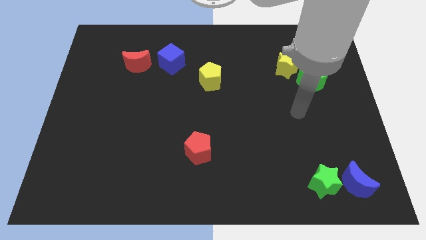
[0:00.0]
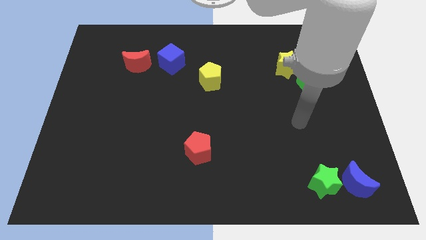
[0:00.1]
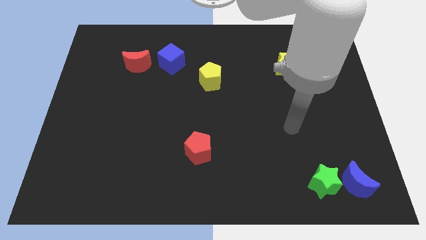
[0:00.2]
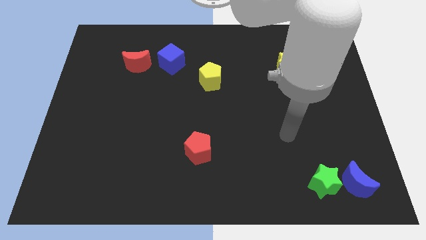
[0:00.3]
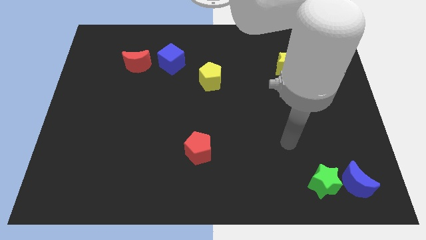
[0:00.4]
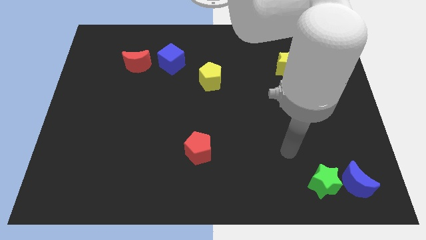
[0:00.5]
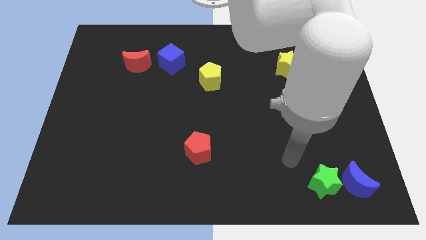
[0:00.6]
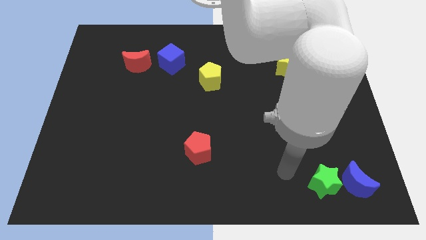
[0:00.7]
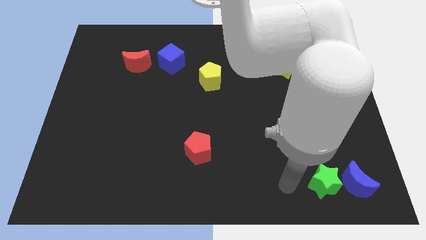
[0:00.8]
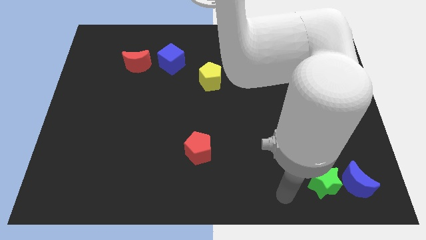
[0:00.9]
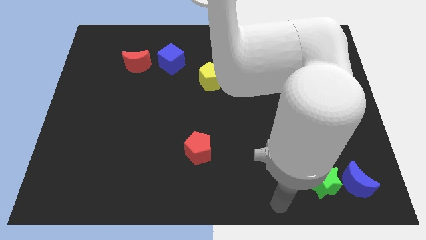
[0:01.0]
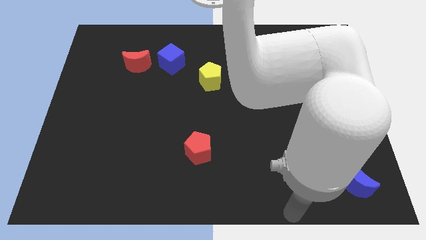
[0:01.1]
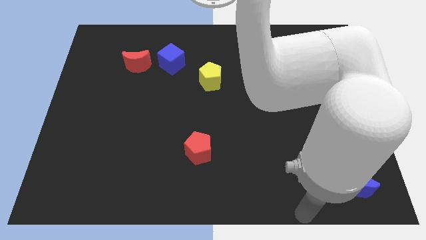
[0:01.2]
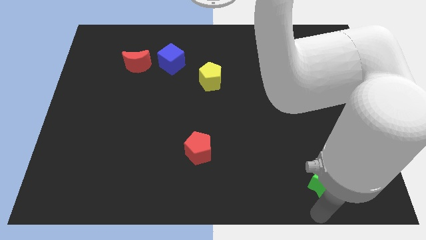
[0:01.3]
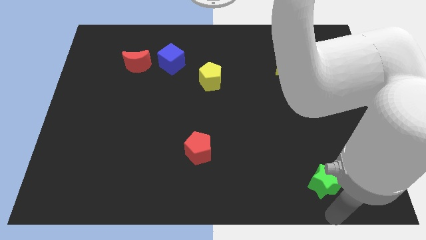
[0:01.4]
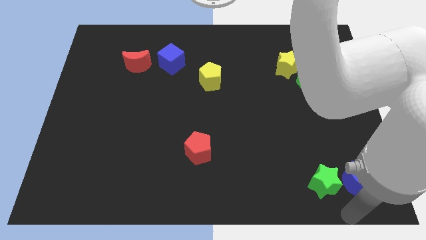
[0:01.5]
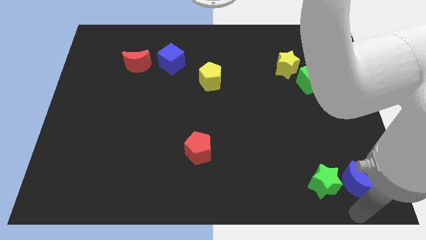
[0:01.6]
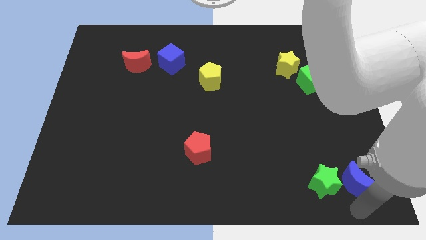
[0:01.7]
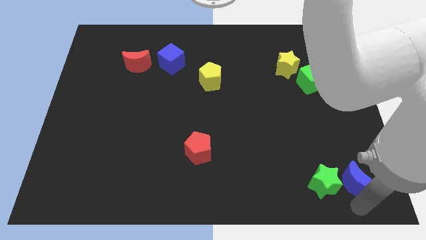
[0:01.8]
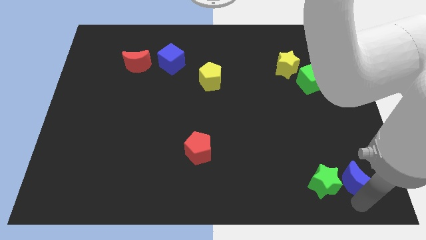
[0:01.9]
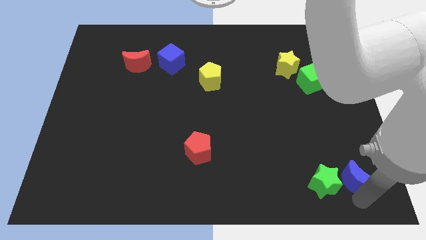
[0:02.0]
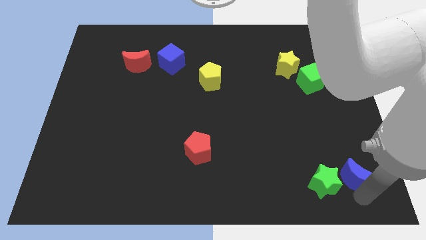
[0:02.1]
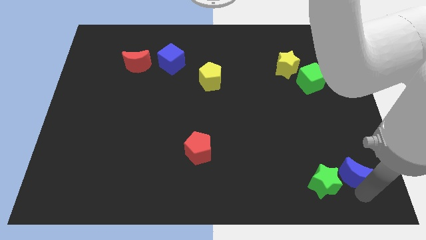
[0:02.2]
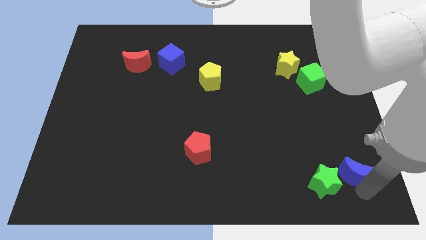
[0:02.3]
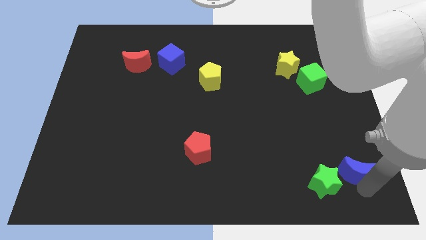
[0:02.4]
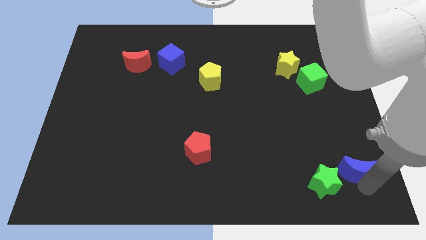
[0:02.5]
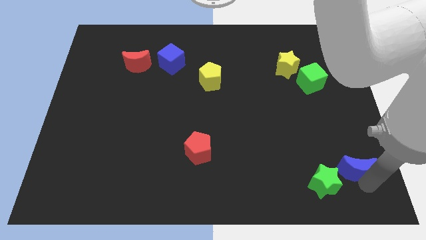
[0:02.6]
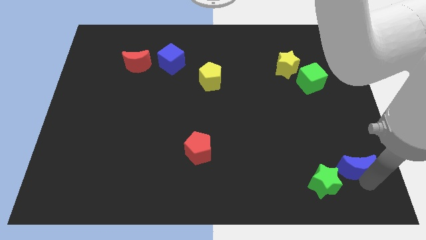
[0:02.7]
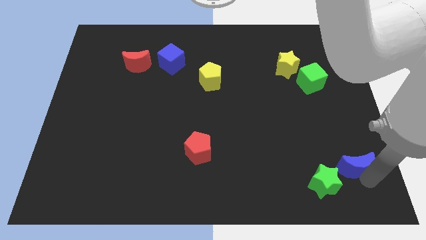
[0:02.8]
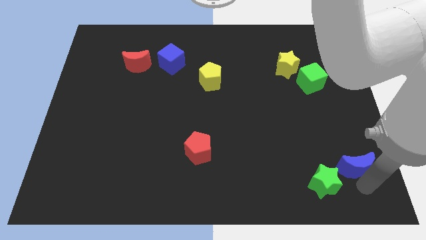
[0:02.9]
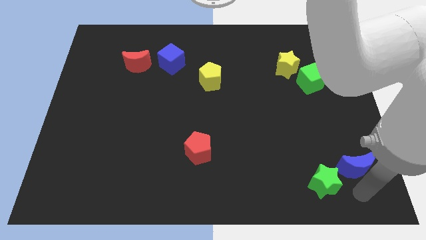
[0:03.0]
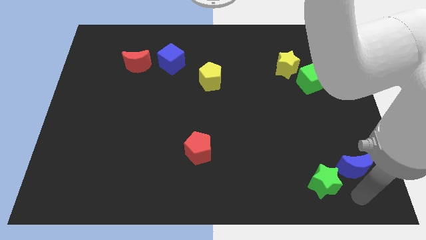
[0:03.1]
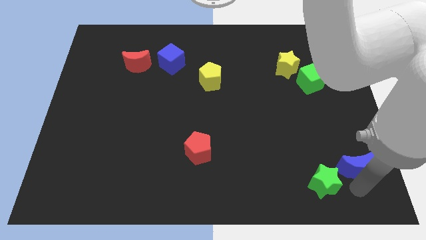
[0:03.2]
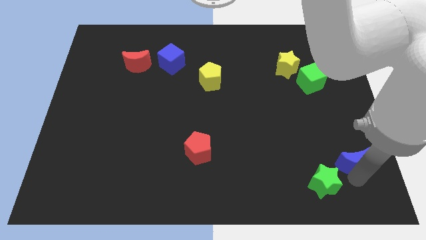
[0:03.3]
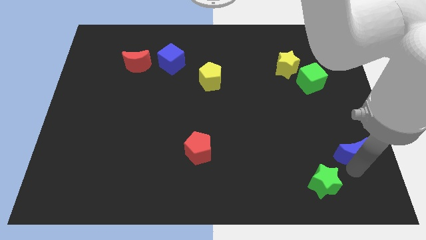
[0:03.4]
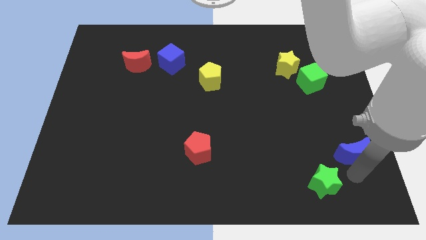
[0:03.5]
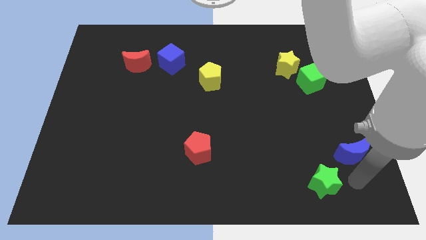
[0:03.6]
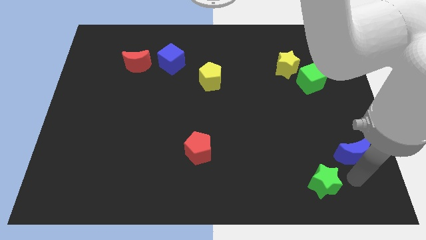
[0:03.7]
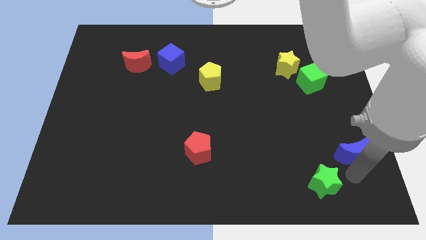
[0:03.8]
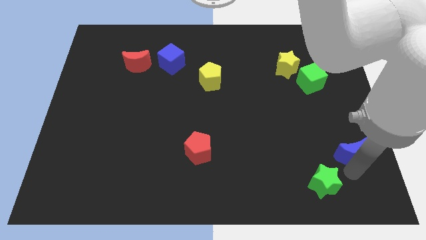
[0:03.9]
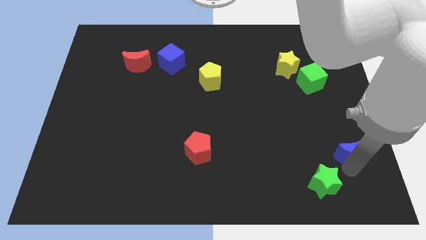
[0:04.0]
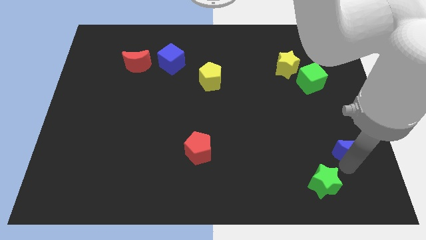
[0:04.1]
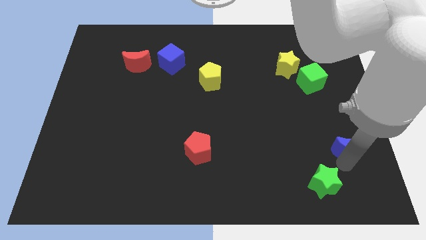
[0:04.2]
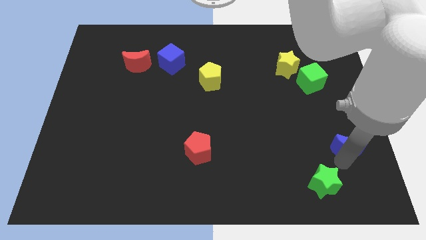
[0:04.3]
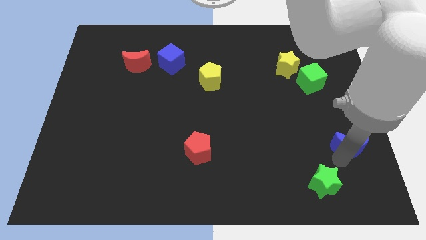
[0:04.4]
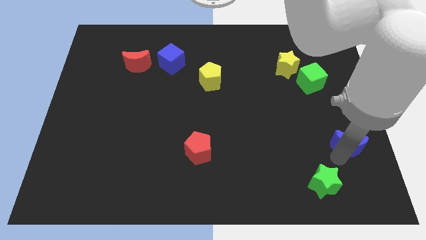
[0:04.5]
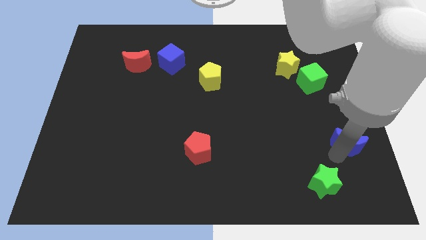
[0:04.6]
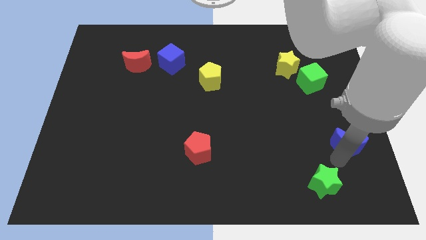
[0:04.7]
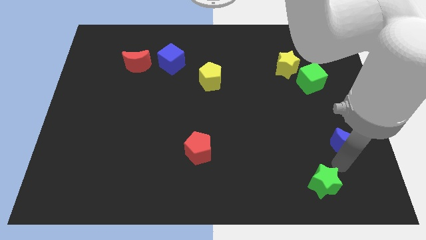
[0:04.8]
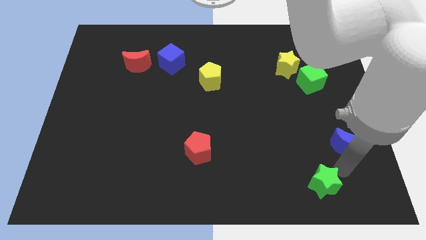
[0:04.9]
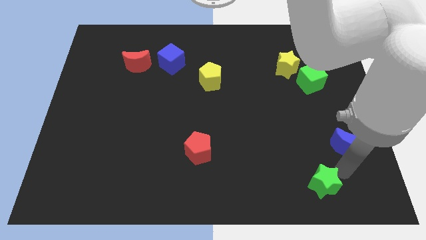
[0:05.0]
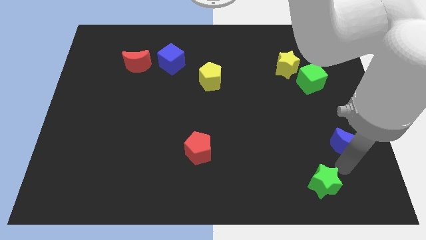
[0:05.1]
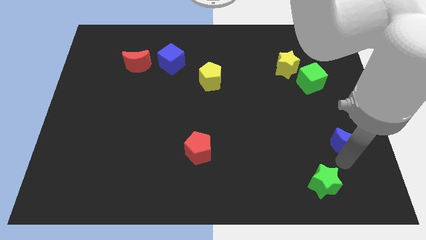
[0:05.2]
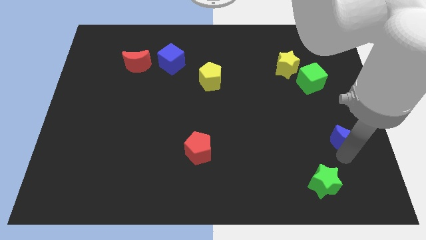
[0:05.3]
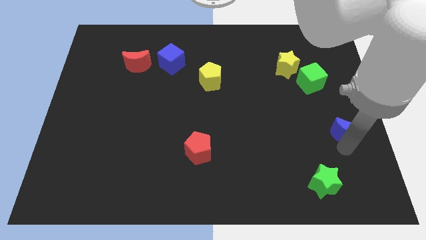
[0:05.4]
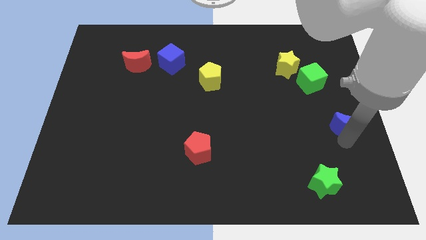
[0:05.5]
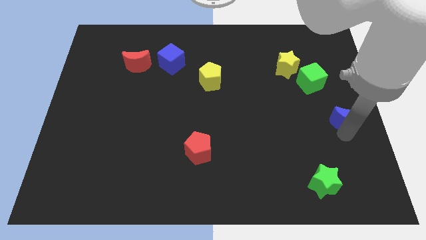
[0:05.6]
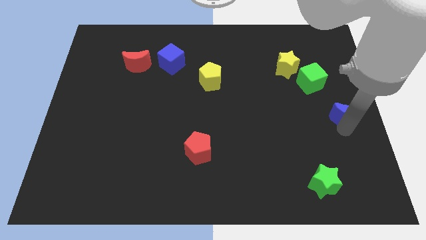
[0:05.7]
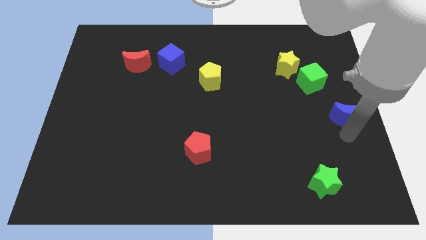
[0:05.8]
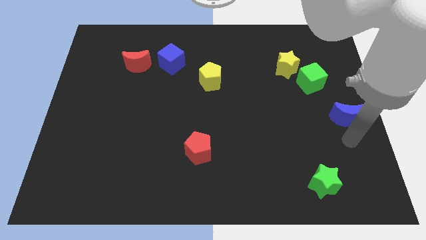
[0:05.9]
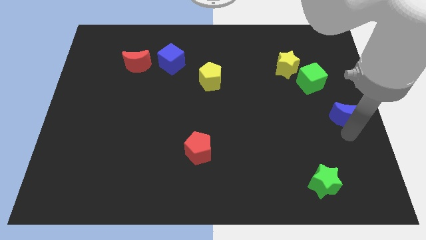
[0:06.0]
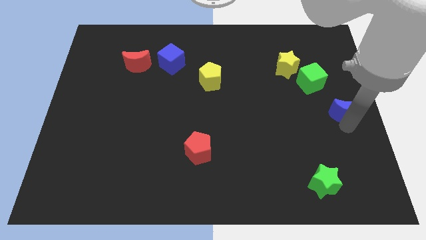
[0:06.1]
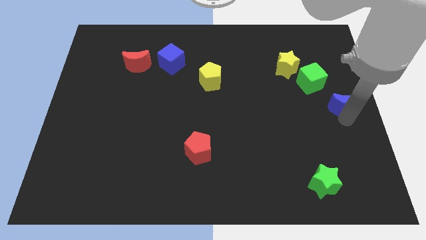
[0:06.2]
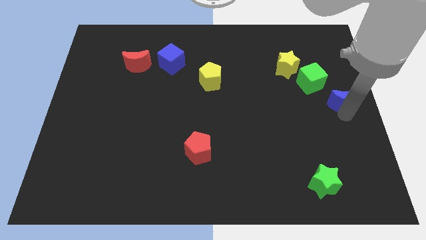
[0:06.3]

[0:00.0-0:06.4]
slide the blue moon upwards

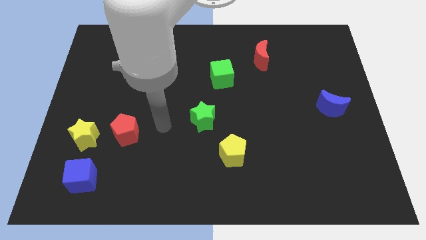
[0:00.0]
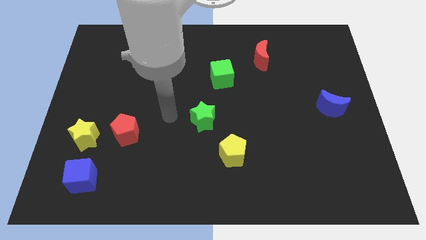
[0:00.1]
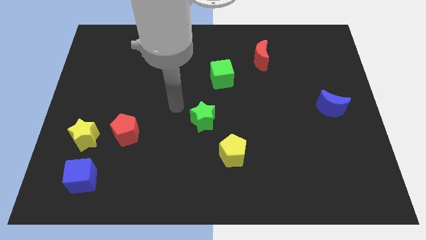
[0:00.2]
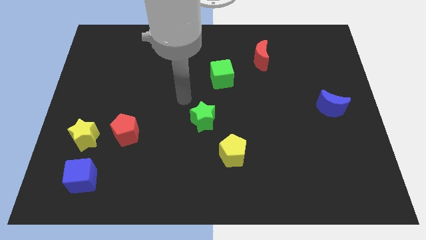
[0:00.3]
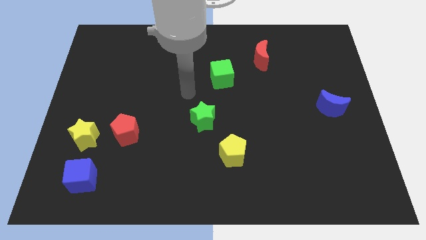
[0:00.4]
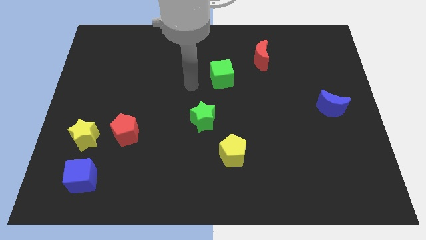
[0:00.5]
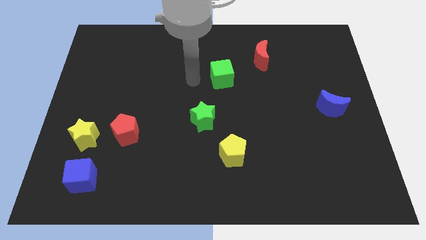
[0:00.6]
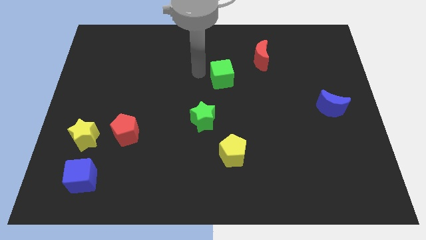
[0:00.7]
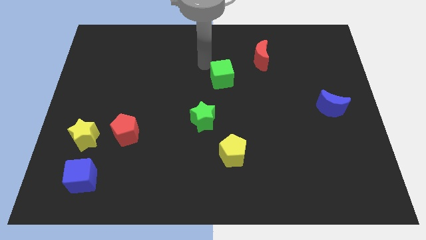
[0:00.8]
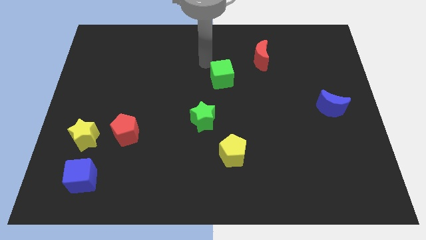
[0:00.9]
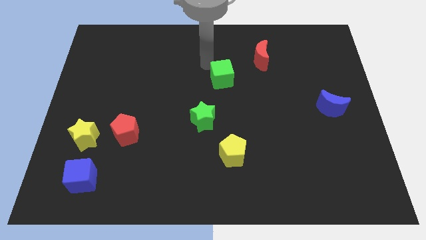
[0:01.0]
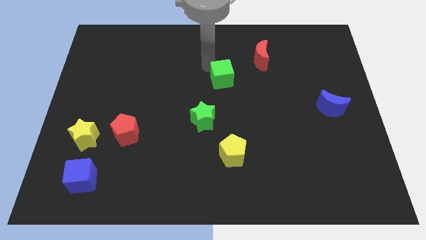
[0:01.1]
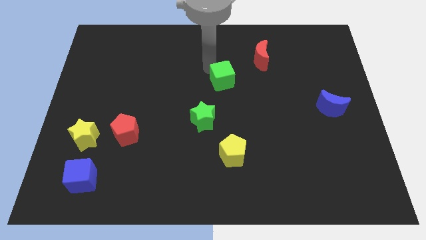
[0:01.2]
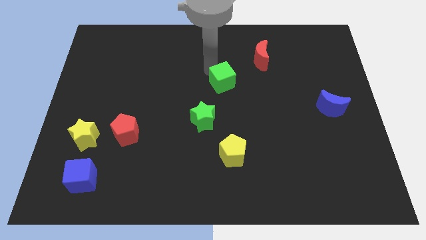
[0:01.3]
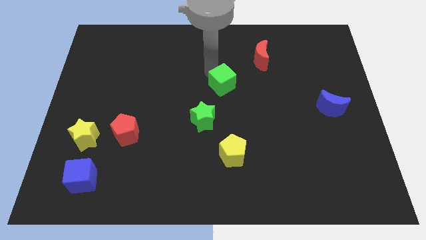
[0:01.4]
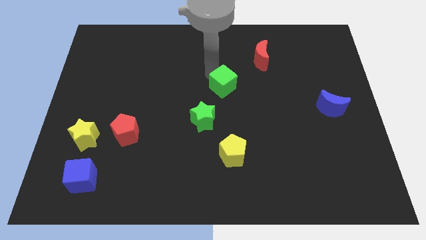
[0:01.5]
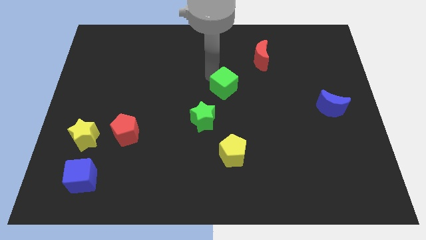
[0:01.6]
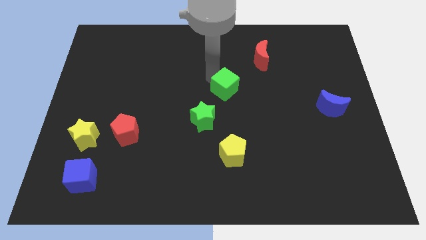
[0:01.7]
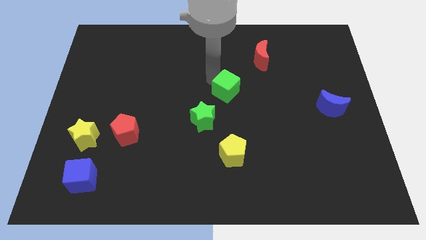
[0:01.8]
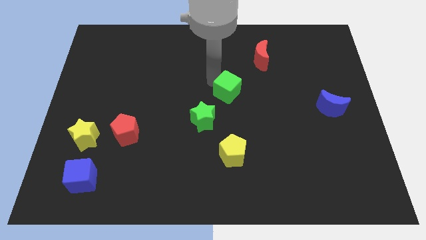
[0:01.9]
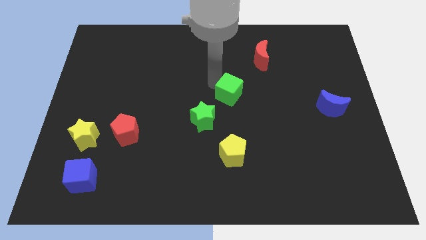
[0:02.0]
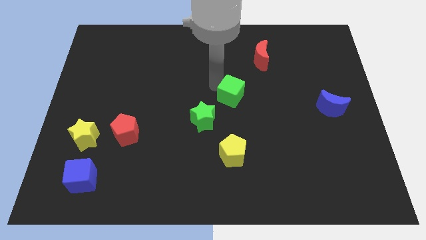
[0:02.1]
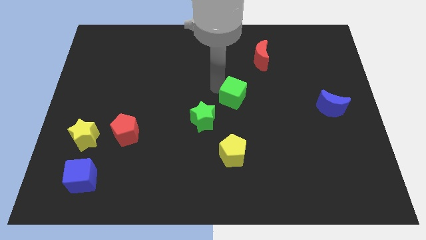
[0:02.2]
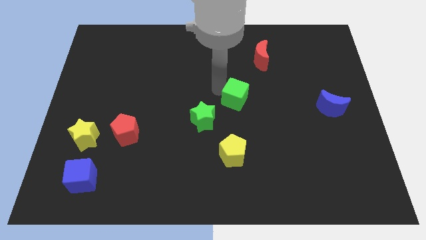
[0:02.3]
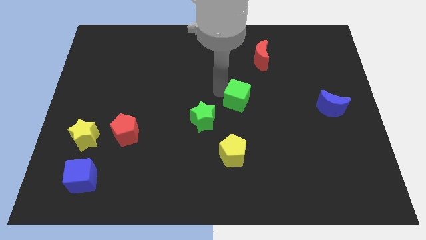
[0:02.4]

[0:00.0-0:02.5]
slightly slide the green cube downwards and to the right
